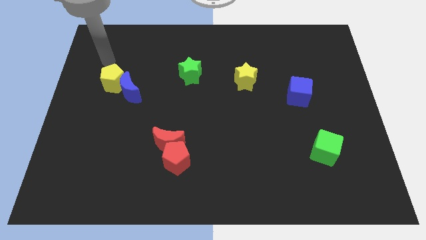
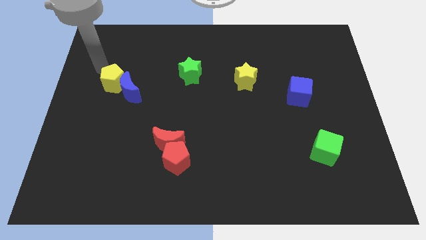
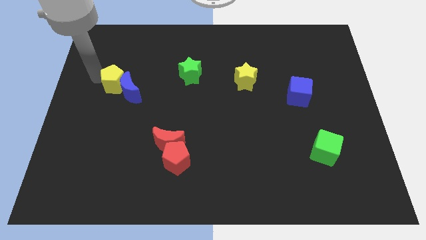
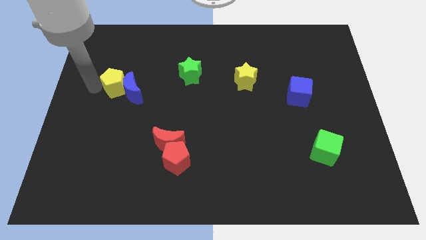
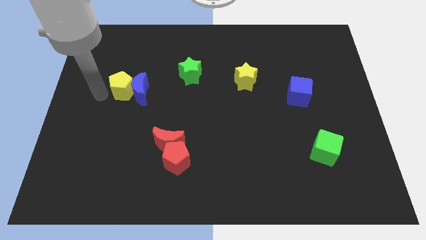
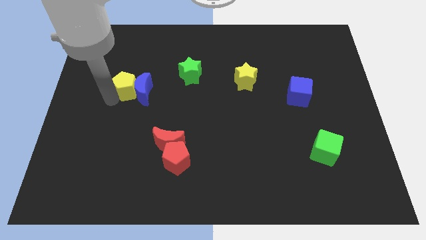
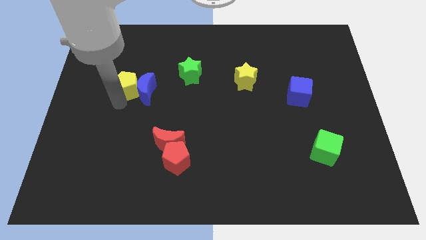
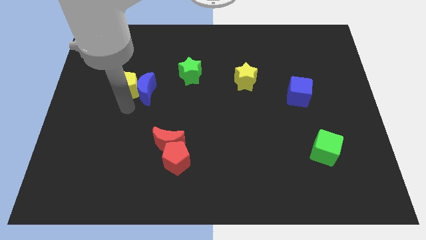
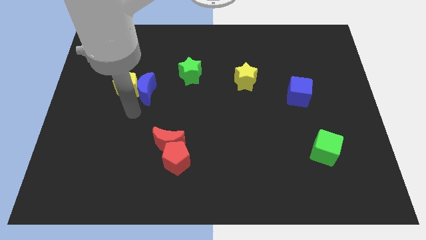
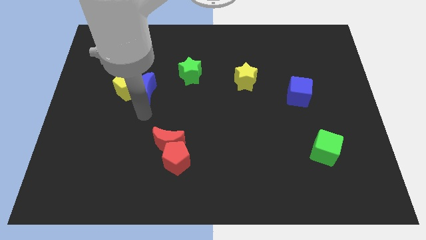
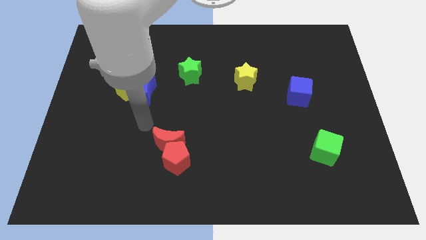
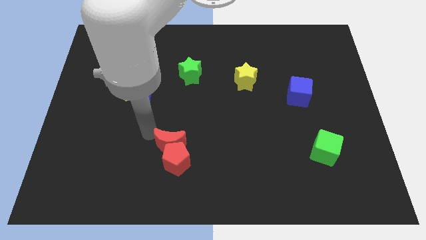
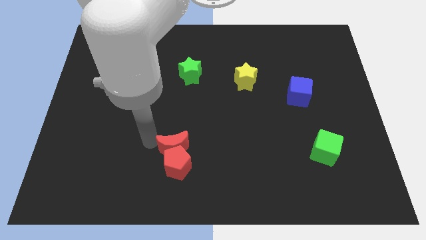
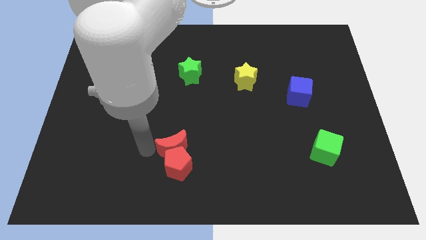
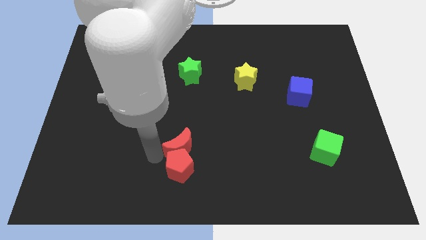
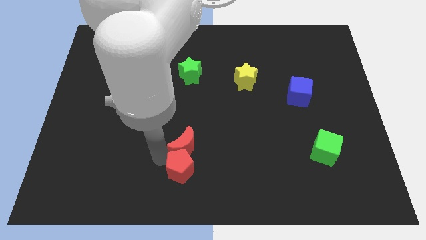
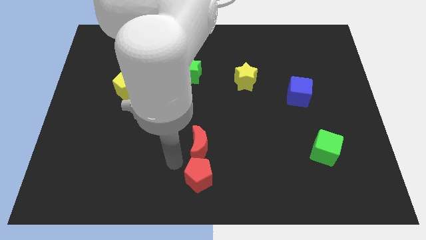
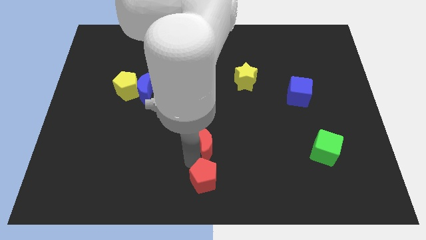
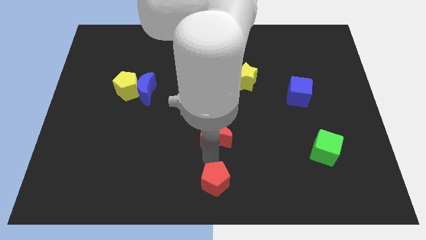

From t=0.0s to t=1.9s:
pull the red moon apart from the red pentagon

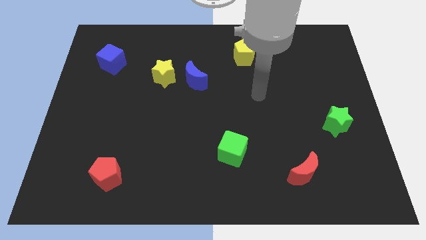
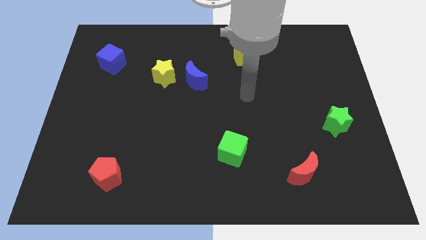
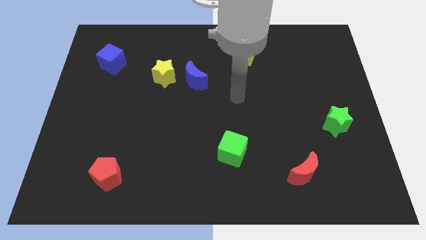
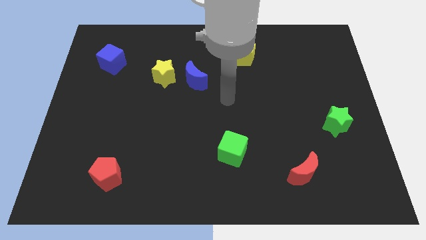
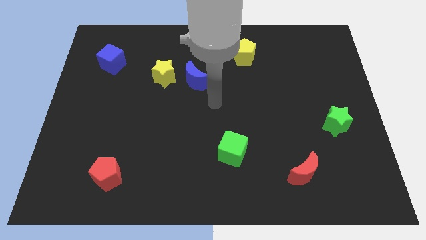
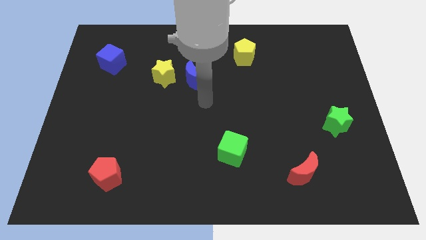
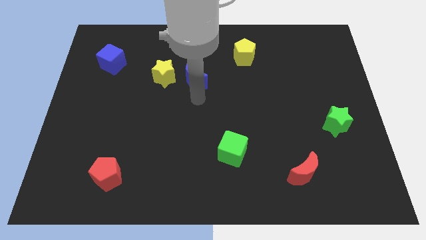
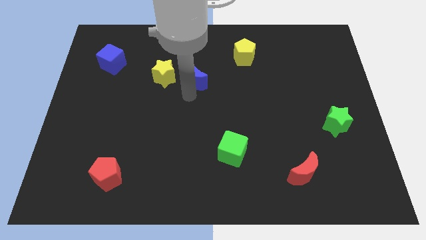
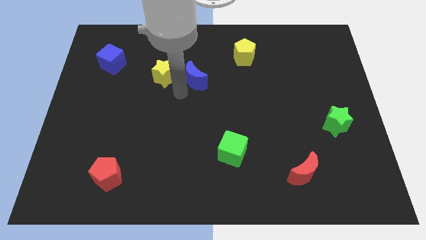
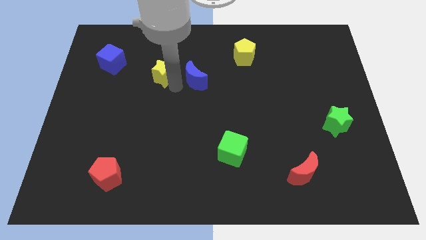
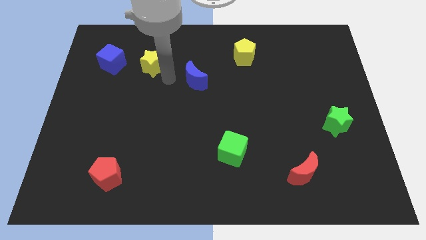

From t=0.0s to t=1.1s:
move the blue moon away from the yellow star

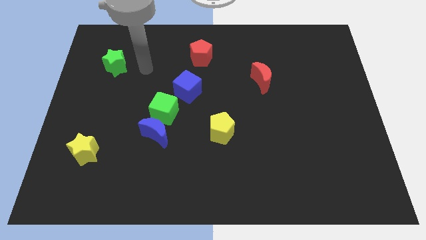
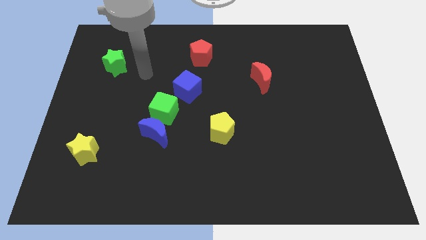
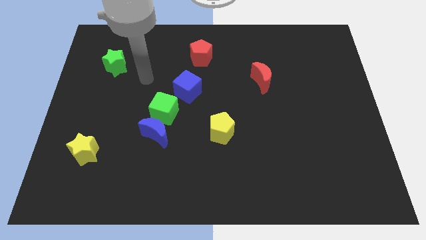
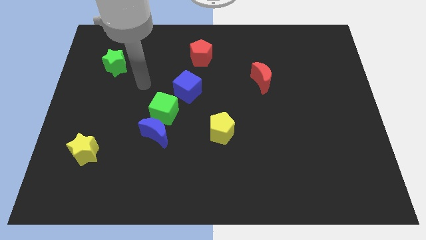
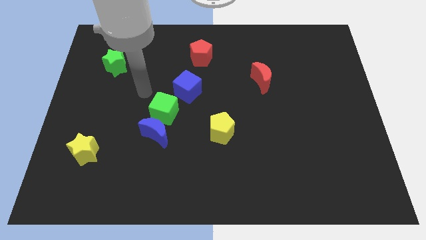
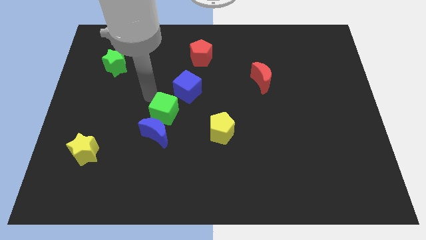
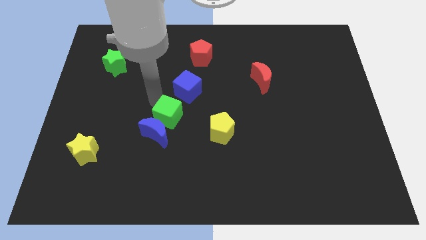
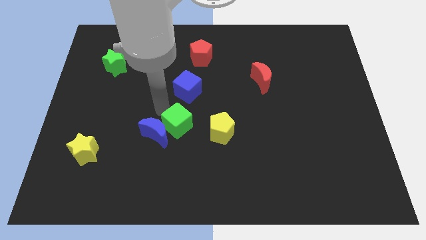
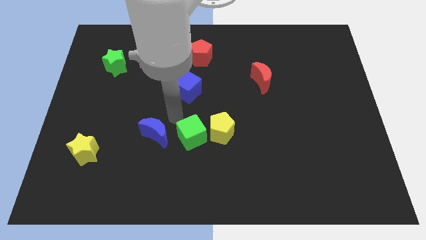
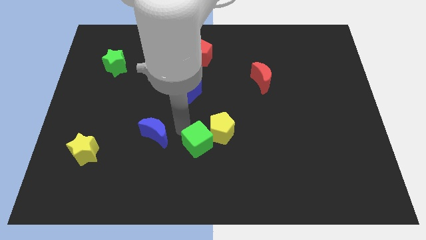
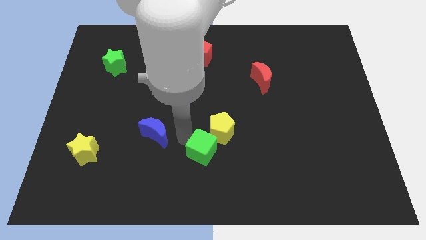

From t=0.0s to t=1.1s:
move the blue moon away from the green cube

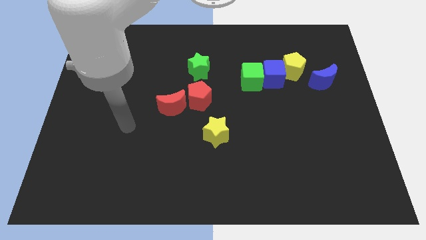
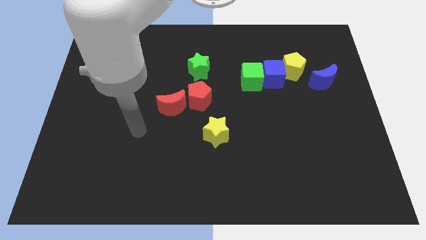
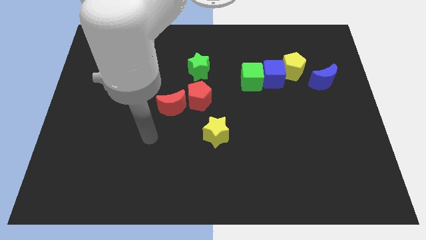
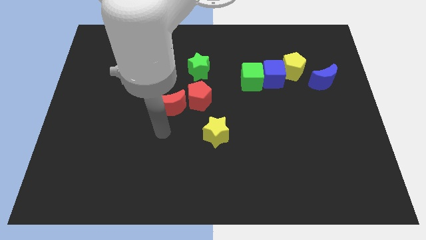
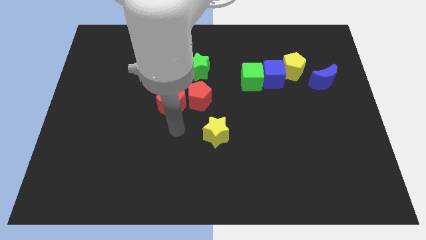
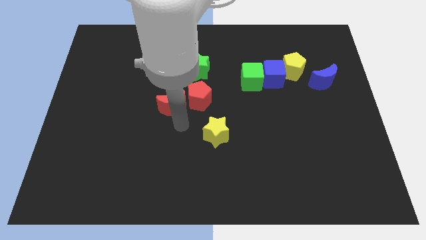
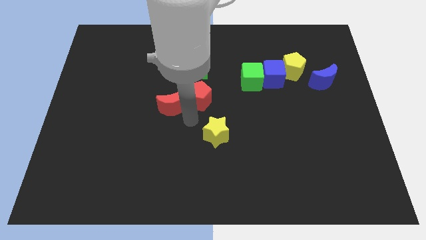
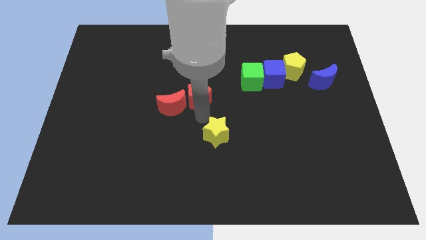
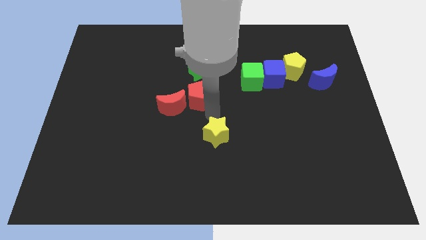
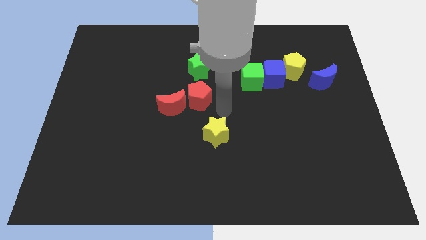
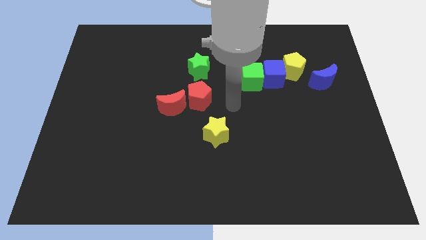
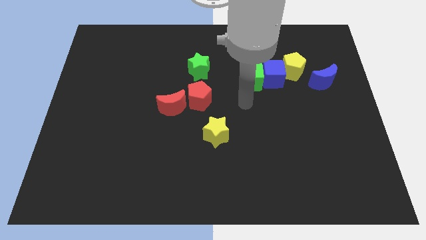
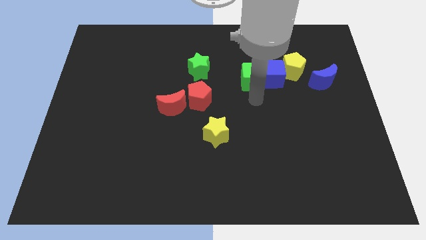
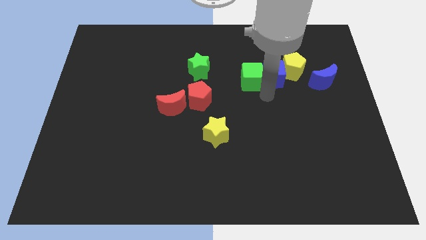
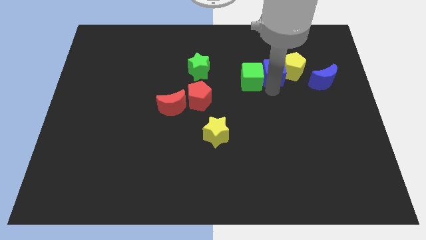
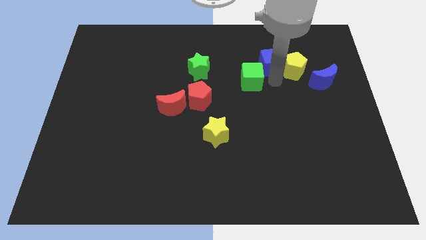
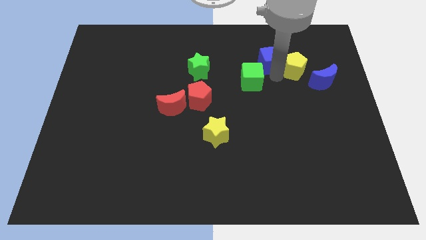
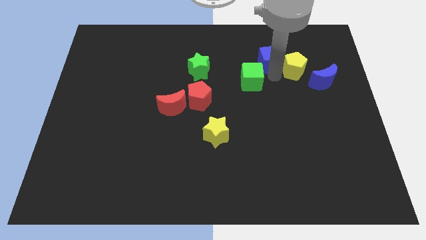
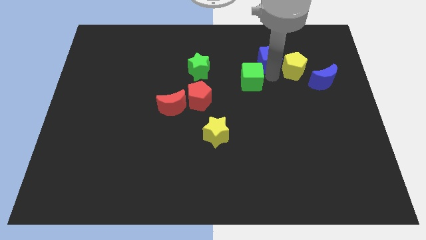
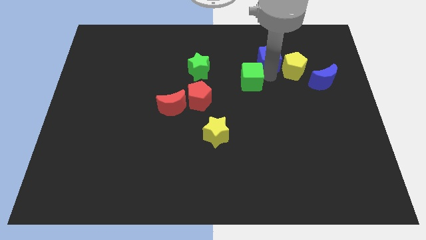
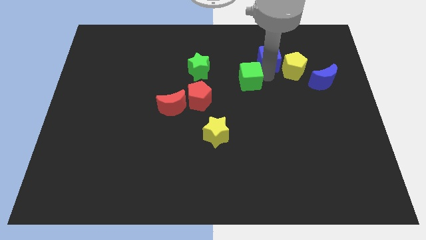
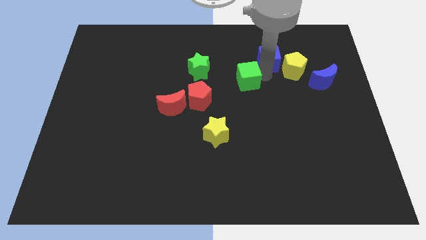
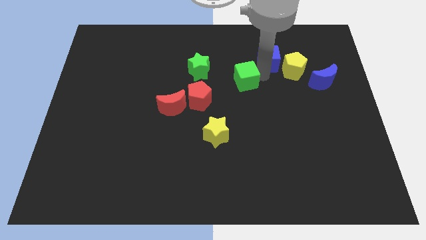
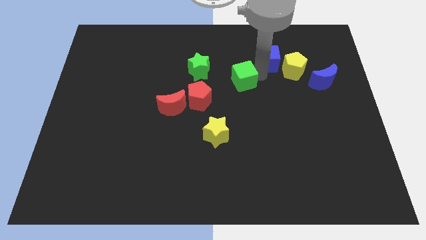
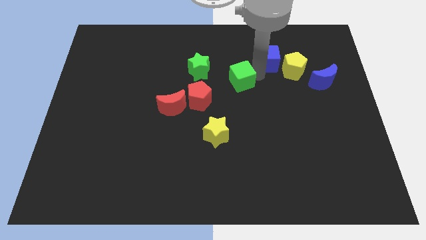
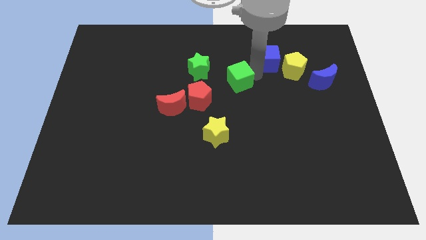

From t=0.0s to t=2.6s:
pull the green cube apart from the blue cube

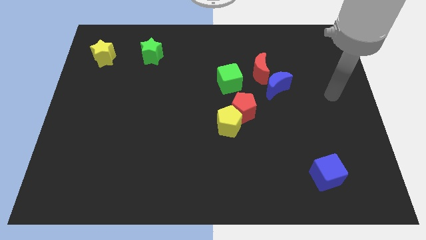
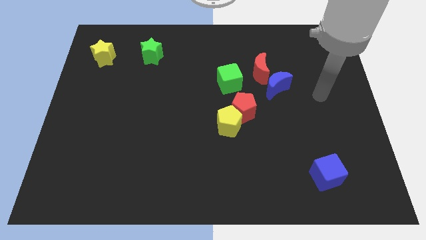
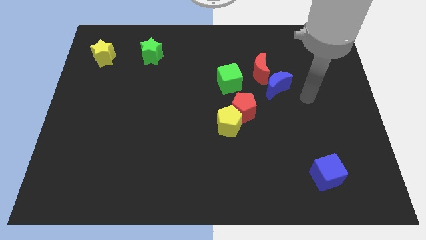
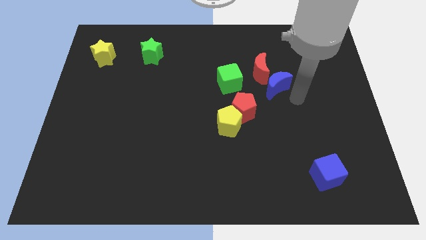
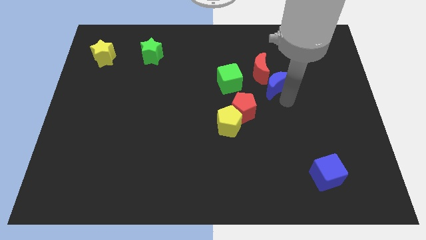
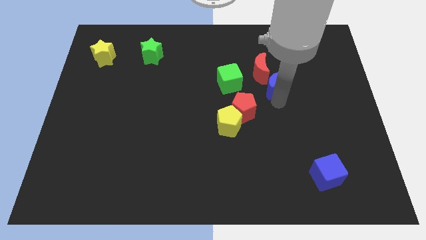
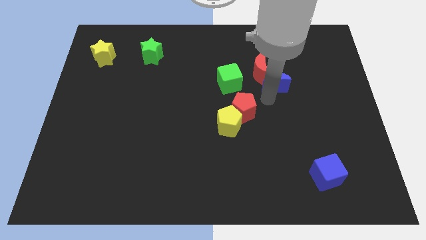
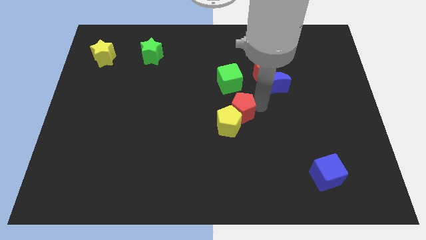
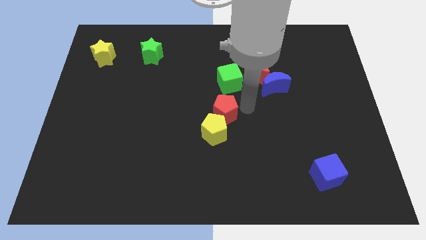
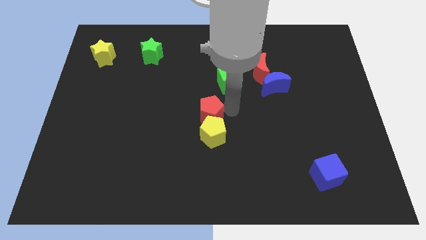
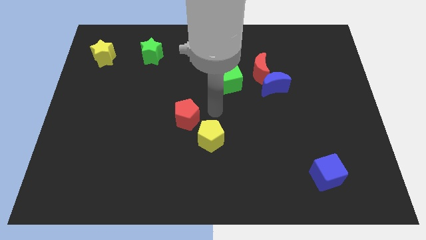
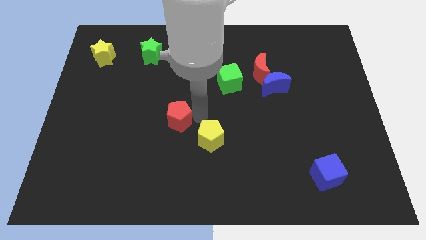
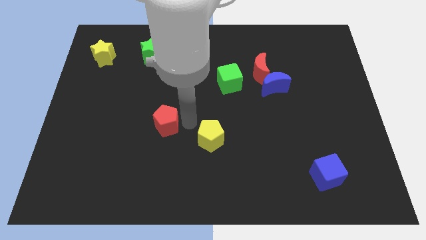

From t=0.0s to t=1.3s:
separate the yellow pentagon from the red pentagon

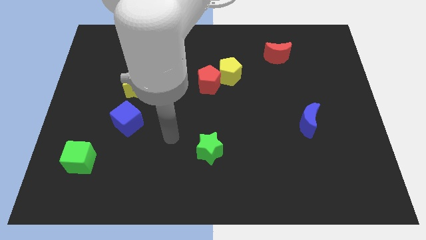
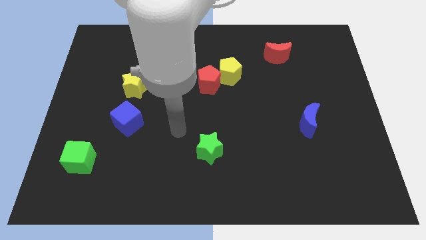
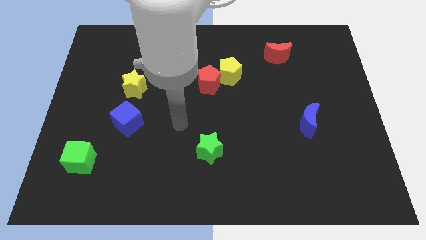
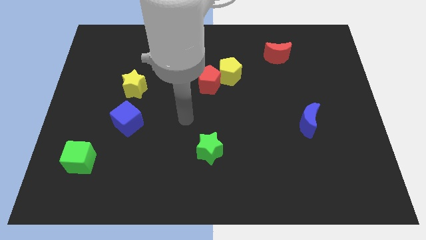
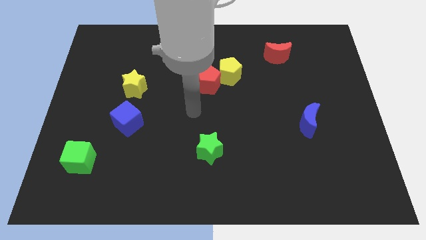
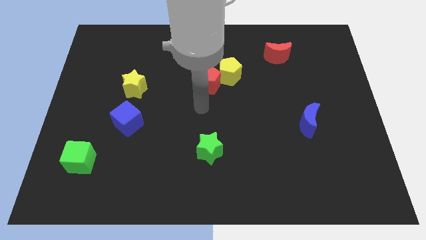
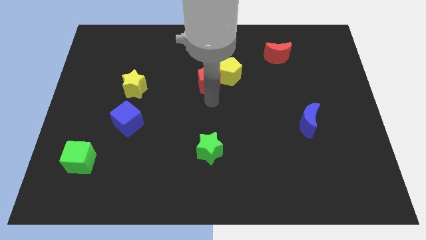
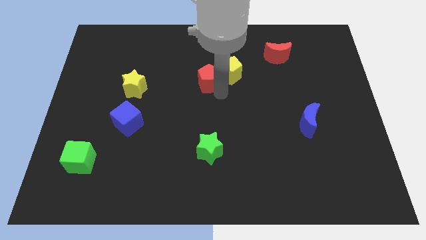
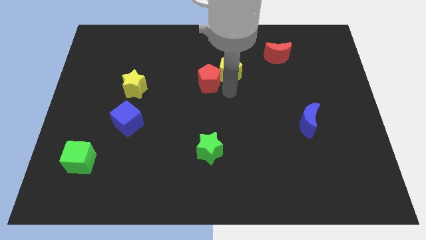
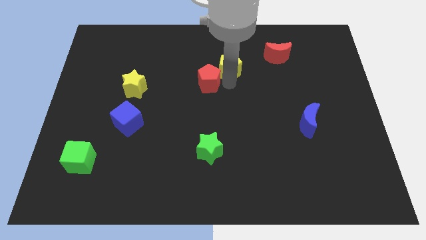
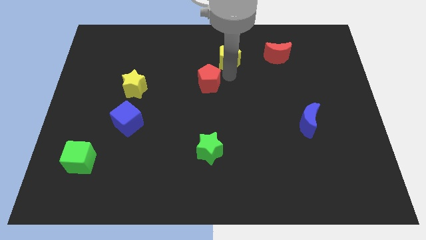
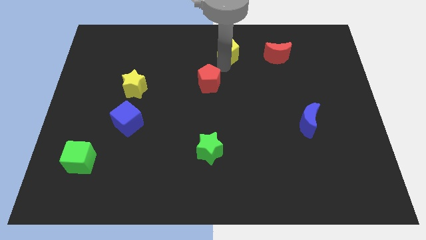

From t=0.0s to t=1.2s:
pull the red pentagon apart from the yellow pentagon
